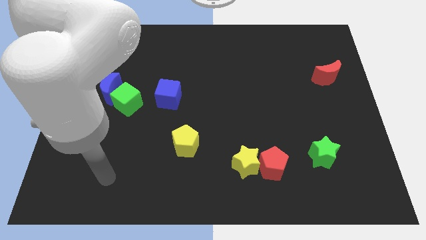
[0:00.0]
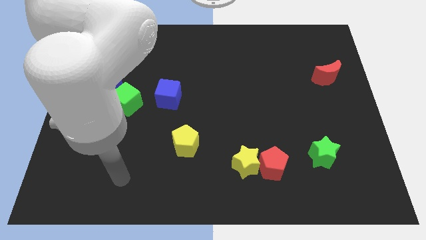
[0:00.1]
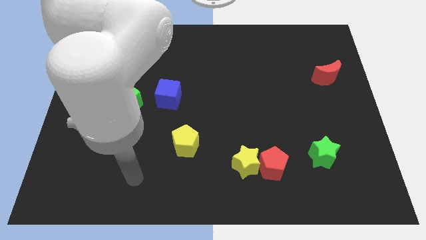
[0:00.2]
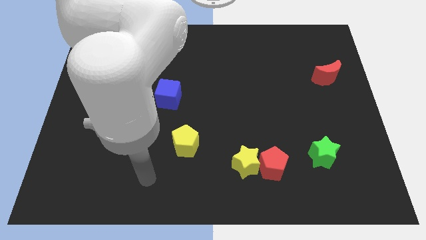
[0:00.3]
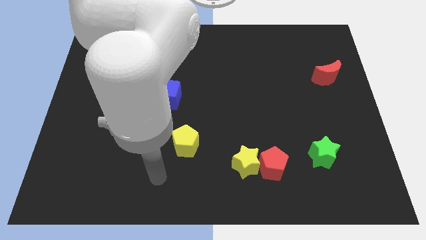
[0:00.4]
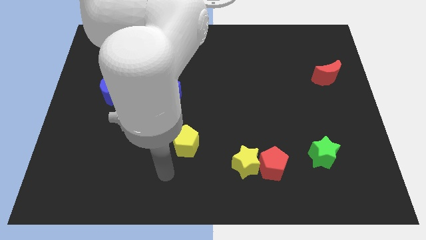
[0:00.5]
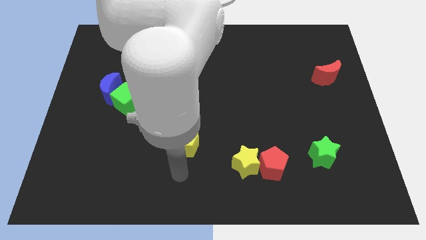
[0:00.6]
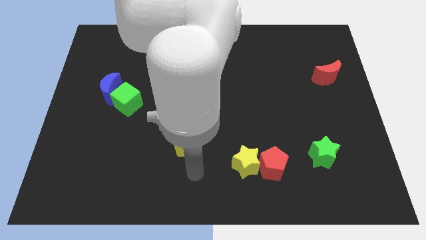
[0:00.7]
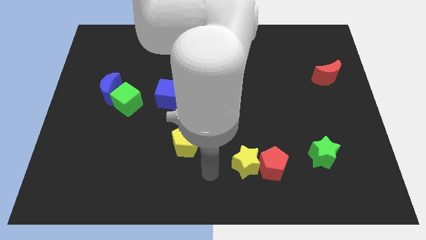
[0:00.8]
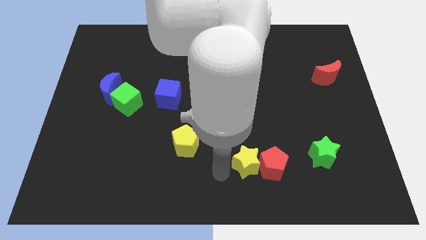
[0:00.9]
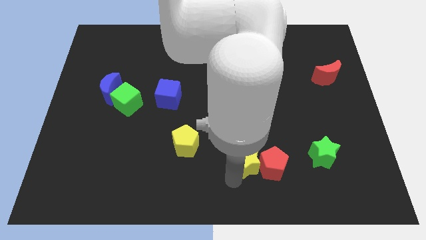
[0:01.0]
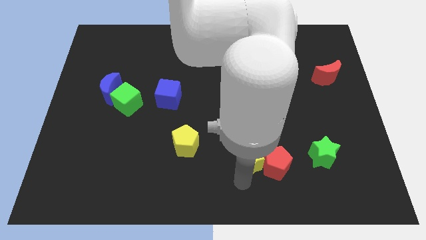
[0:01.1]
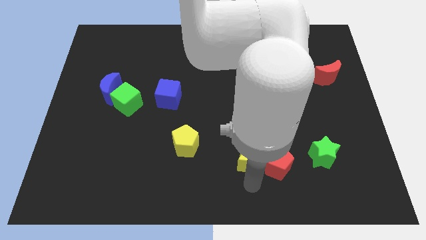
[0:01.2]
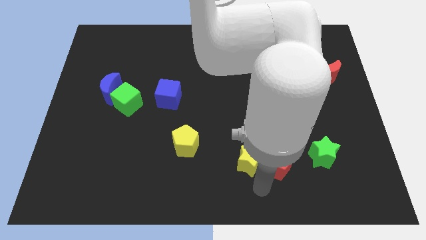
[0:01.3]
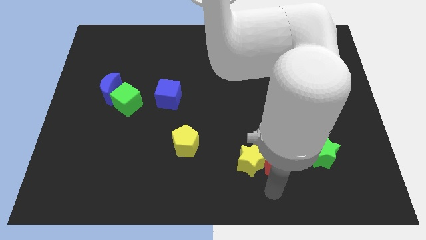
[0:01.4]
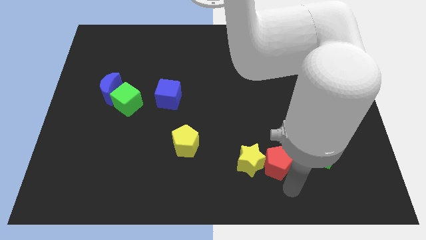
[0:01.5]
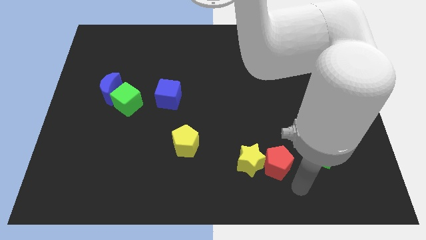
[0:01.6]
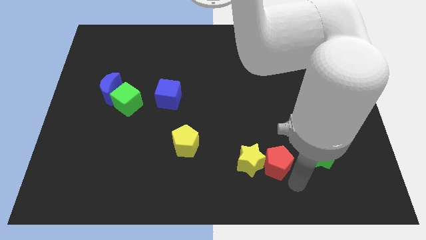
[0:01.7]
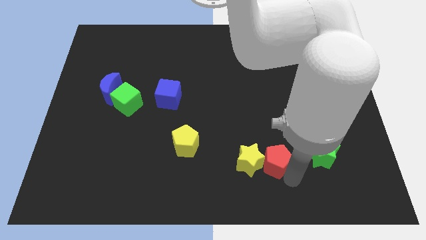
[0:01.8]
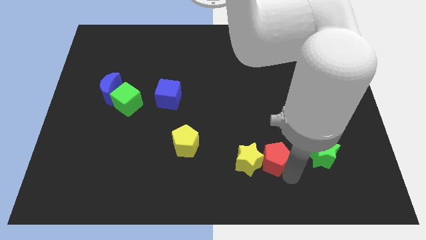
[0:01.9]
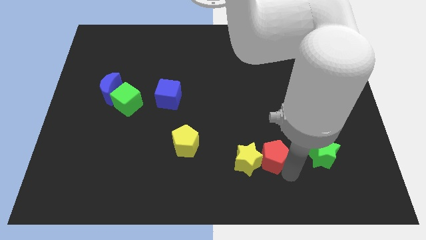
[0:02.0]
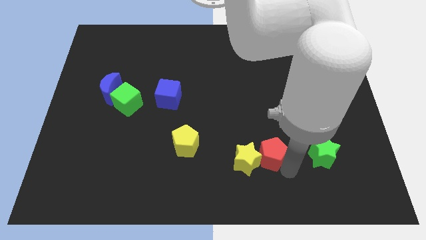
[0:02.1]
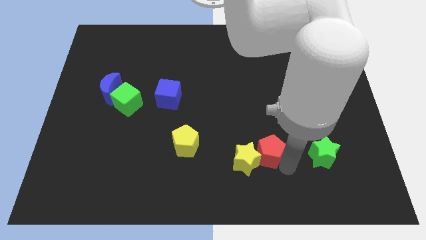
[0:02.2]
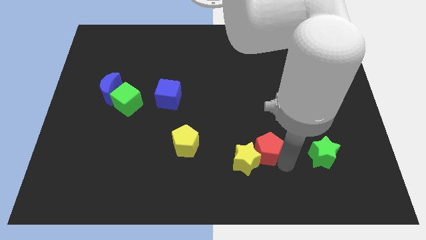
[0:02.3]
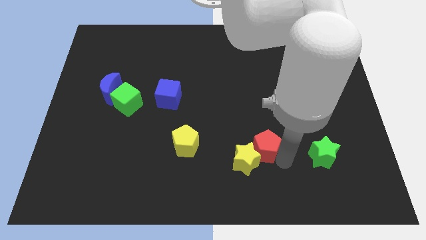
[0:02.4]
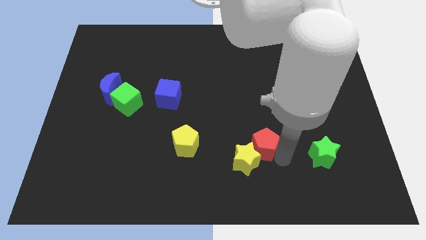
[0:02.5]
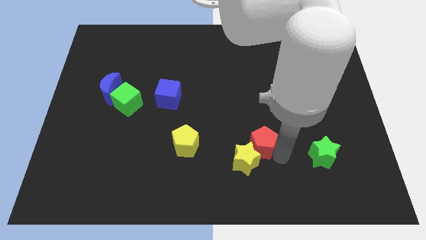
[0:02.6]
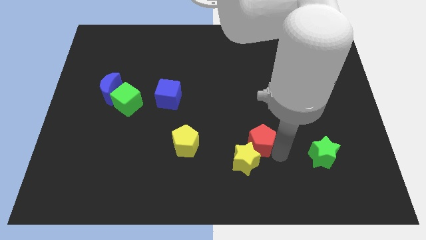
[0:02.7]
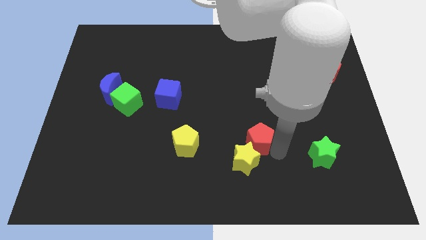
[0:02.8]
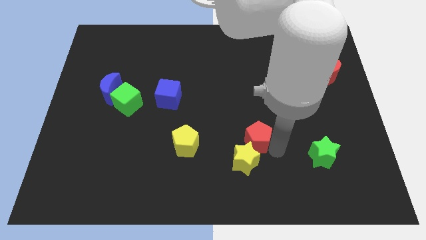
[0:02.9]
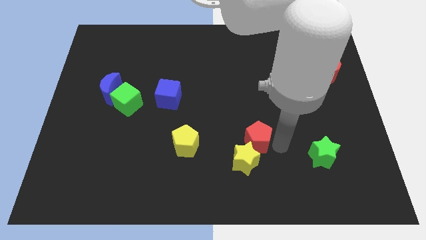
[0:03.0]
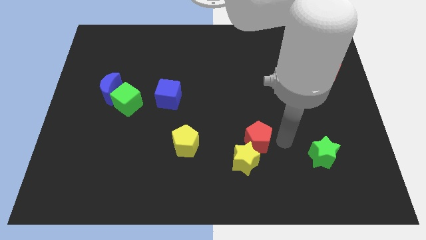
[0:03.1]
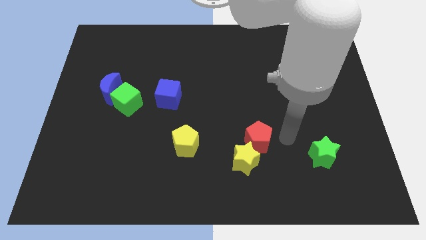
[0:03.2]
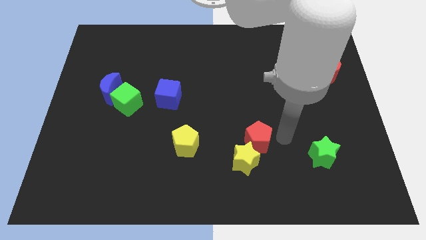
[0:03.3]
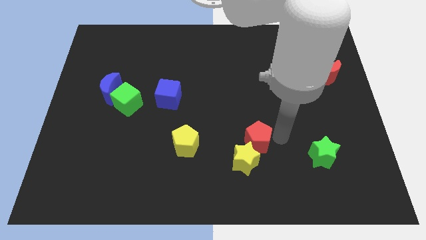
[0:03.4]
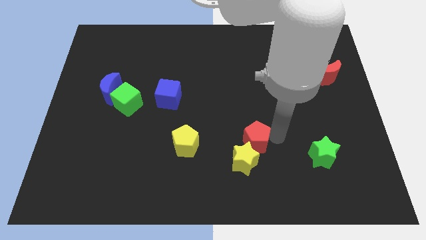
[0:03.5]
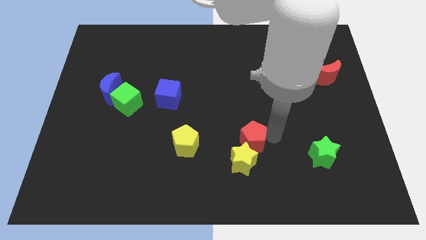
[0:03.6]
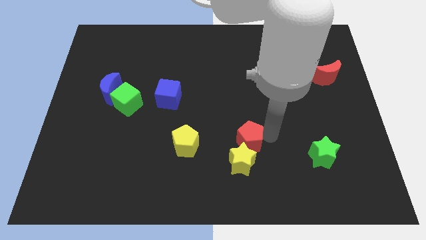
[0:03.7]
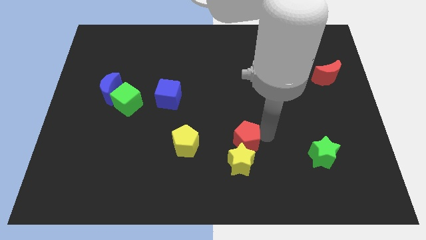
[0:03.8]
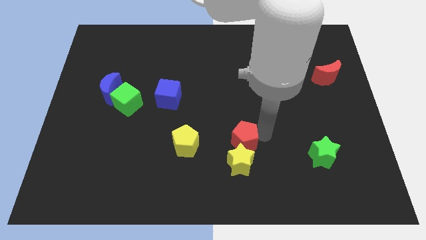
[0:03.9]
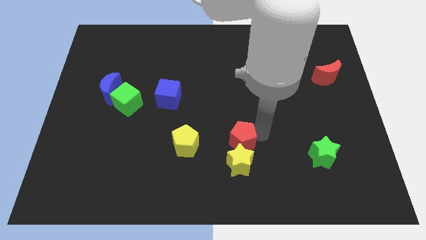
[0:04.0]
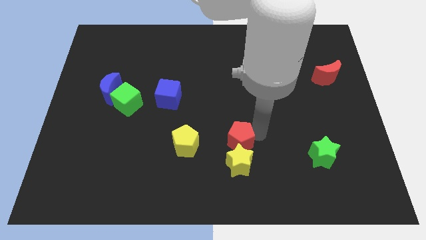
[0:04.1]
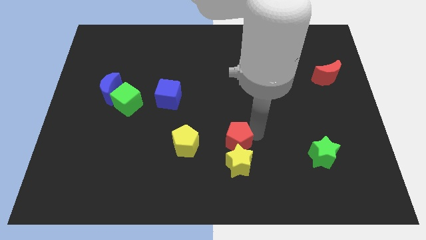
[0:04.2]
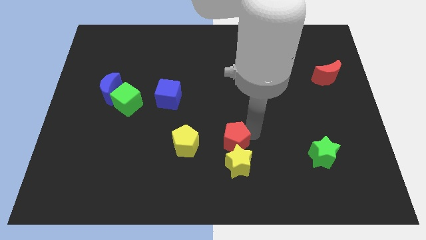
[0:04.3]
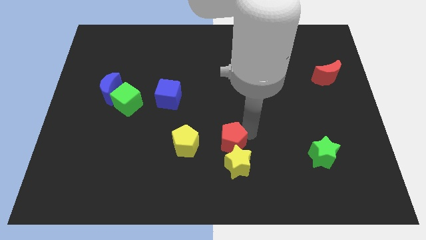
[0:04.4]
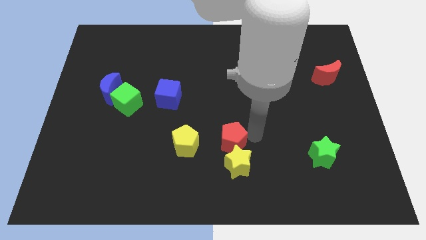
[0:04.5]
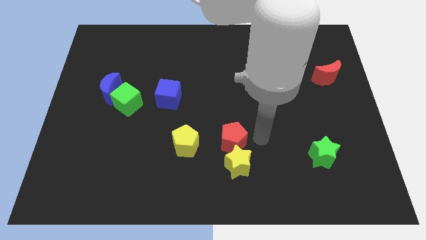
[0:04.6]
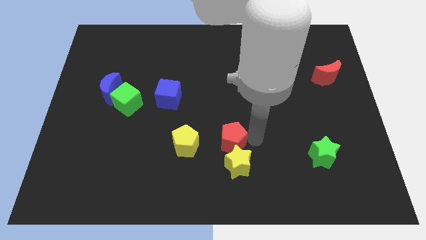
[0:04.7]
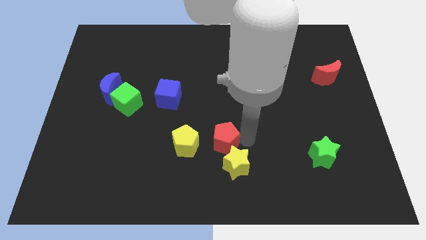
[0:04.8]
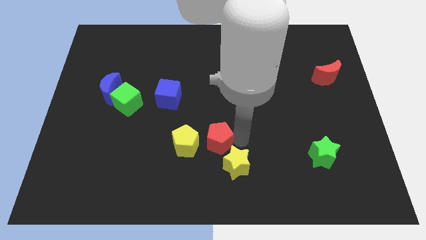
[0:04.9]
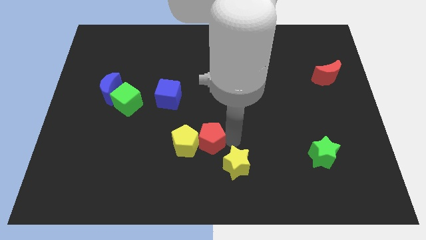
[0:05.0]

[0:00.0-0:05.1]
put the red pentagon next to the yellow pentagon

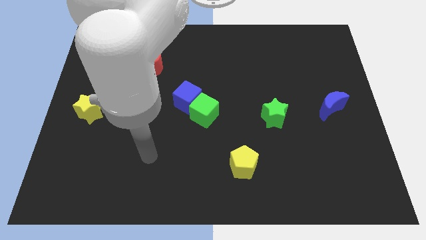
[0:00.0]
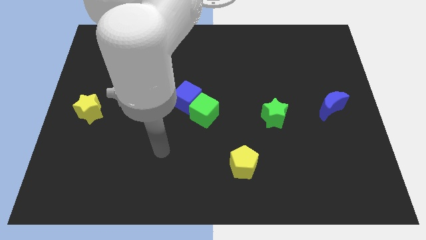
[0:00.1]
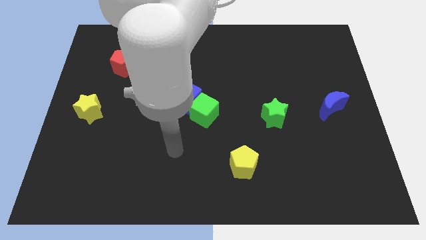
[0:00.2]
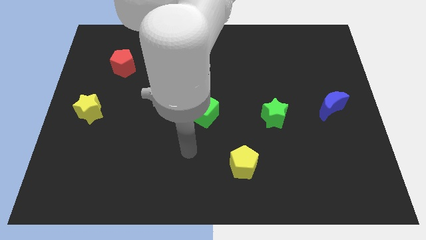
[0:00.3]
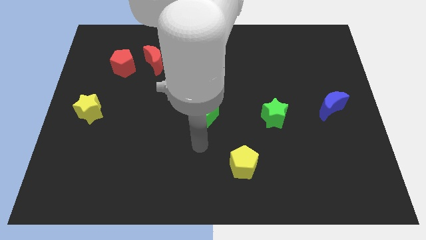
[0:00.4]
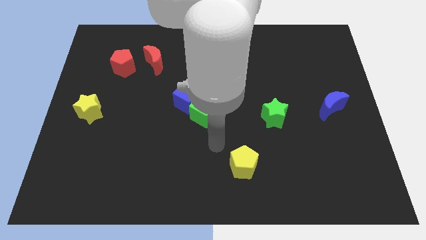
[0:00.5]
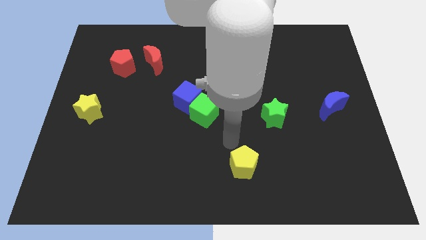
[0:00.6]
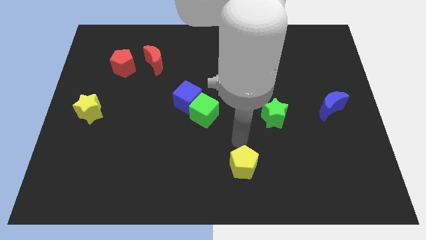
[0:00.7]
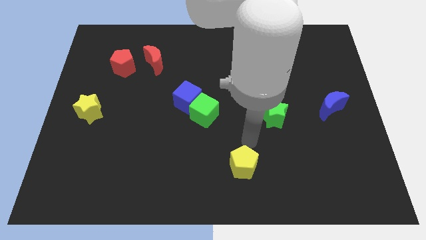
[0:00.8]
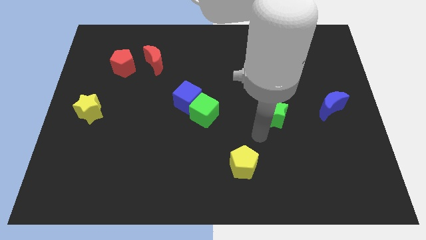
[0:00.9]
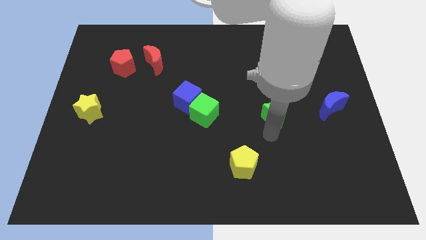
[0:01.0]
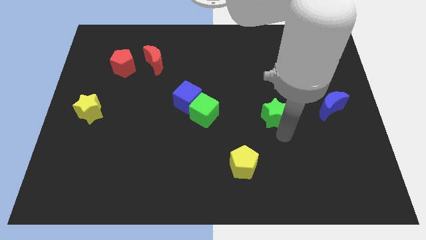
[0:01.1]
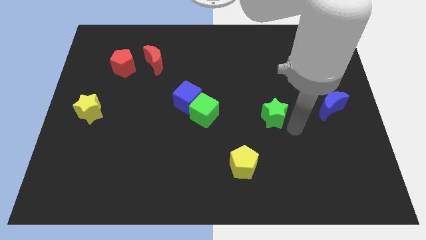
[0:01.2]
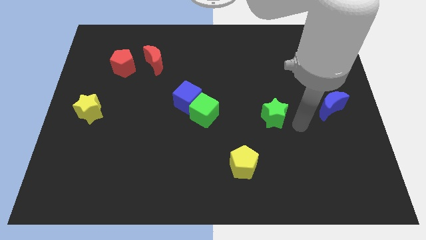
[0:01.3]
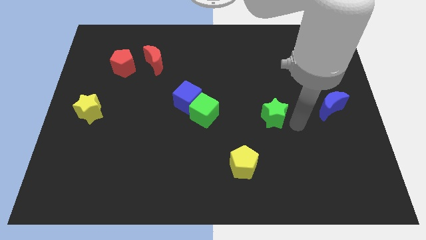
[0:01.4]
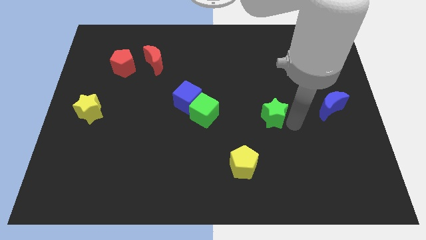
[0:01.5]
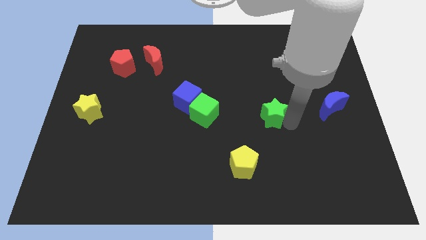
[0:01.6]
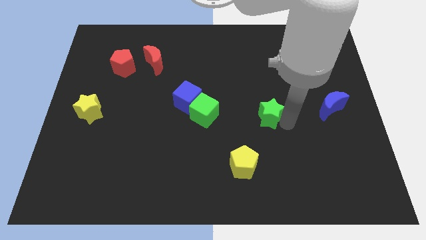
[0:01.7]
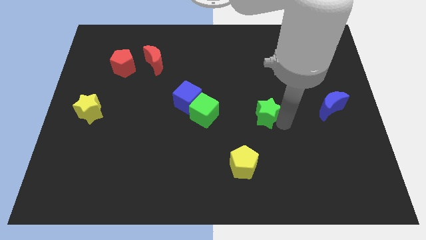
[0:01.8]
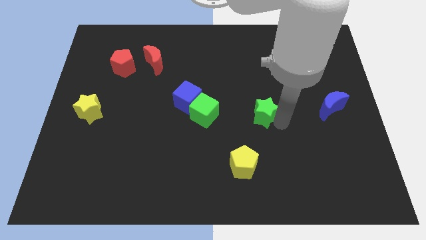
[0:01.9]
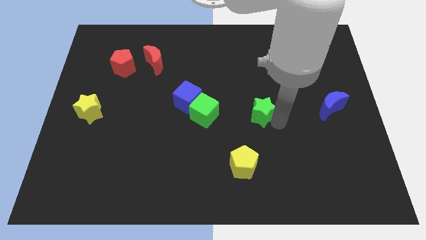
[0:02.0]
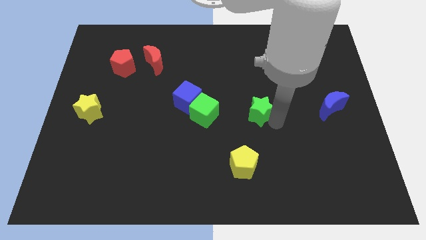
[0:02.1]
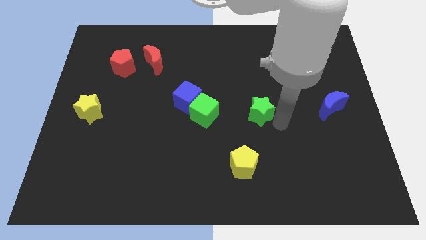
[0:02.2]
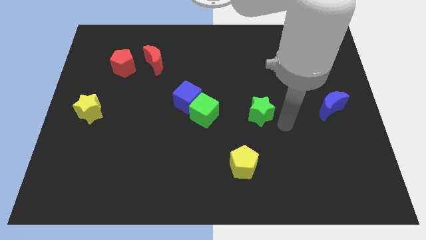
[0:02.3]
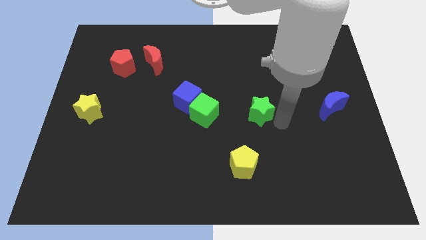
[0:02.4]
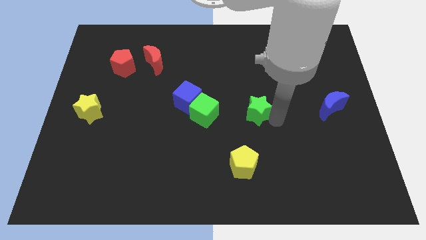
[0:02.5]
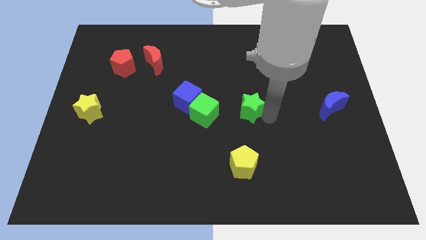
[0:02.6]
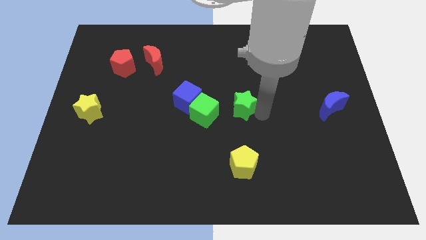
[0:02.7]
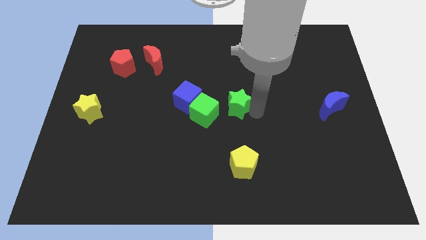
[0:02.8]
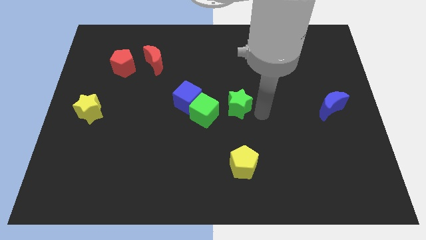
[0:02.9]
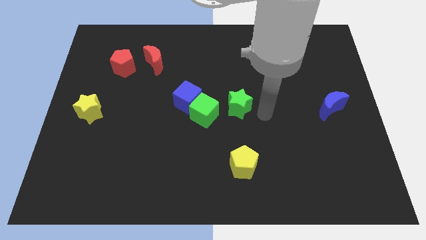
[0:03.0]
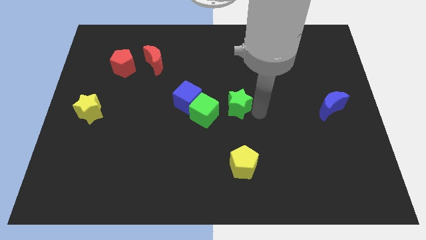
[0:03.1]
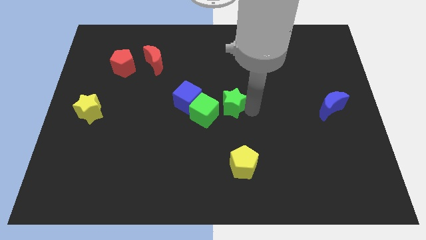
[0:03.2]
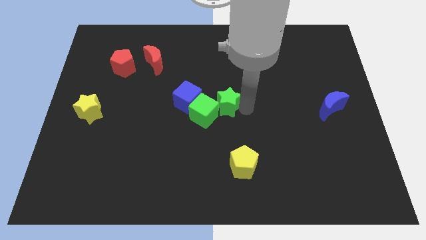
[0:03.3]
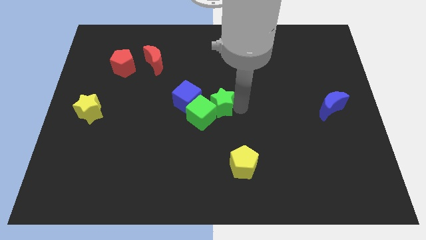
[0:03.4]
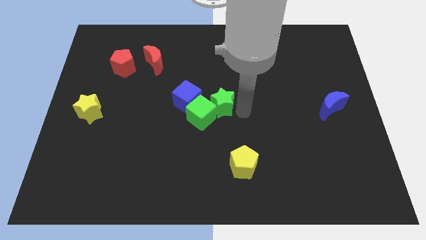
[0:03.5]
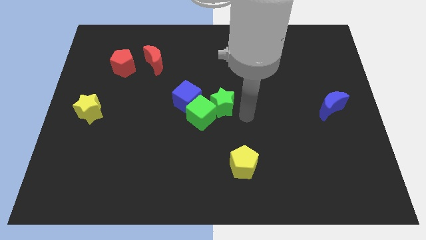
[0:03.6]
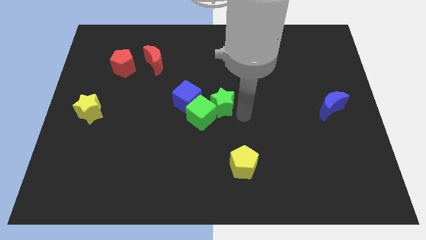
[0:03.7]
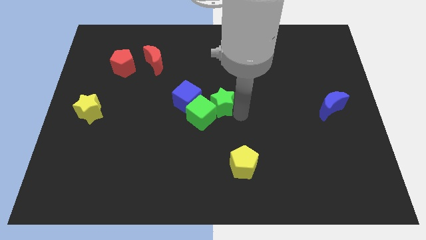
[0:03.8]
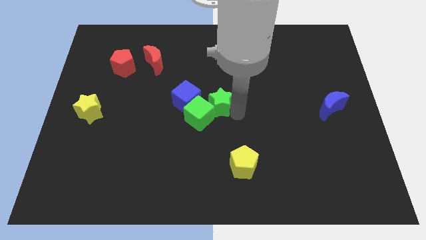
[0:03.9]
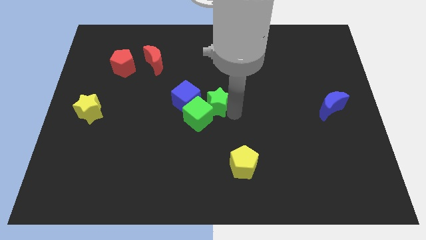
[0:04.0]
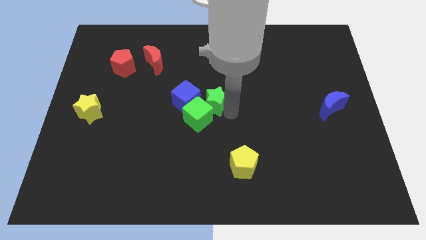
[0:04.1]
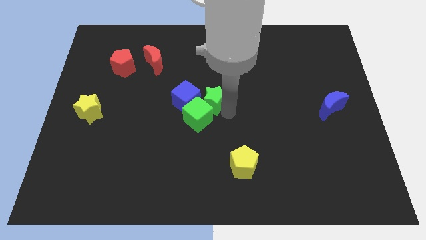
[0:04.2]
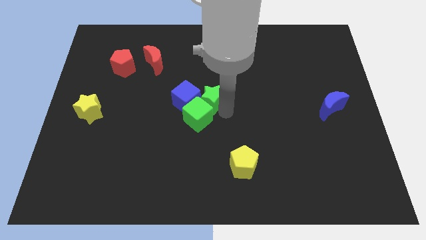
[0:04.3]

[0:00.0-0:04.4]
slide the green star next to the blue cube
